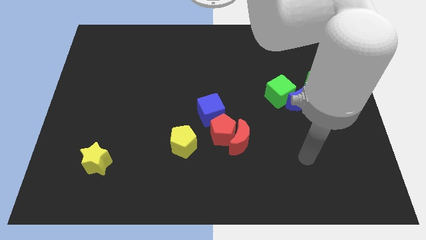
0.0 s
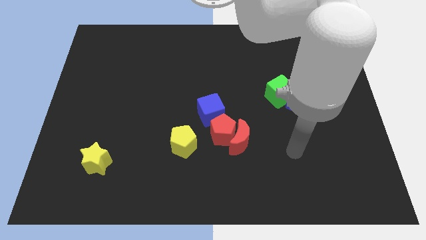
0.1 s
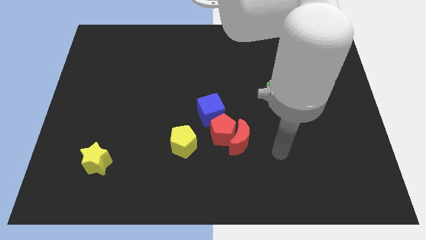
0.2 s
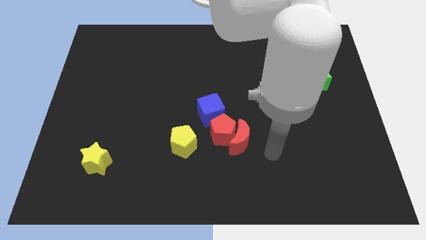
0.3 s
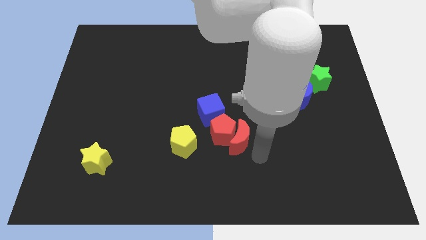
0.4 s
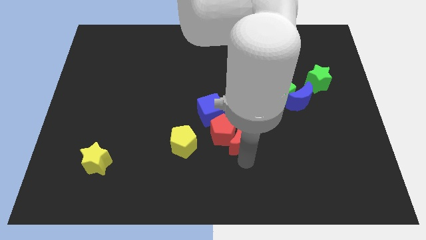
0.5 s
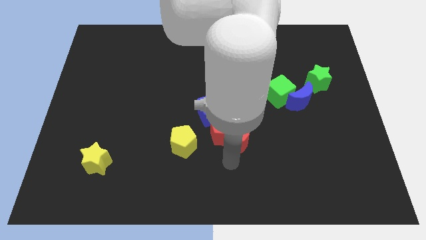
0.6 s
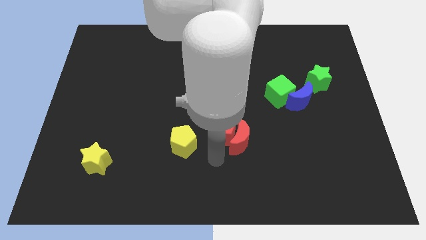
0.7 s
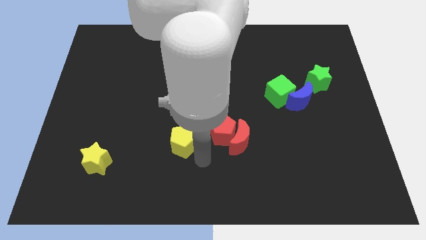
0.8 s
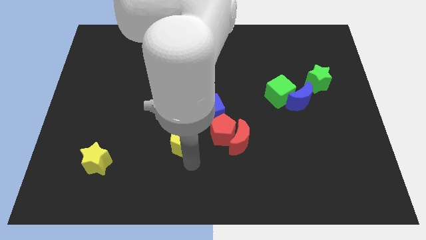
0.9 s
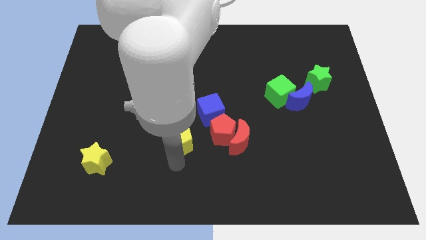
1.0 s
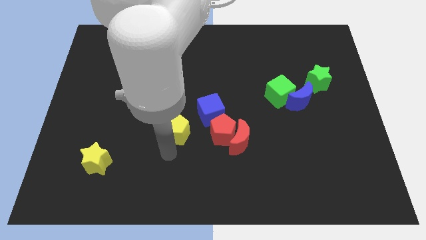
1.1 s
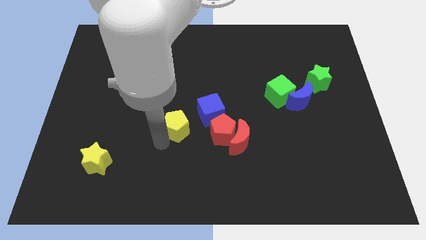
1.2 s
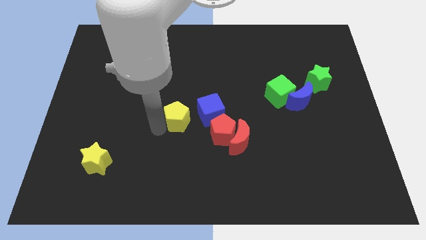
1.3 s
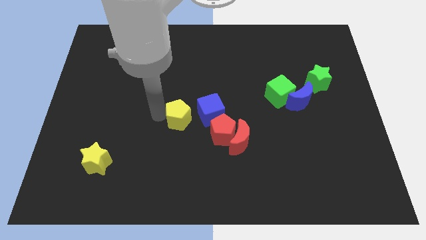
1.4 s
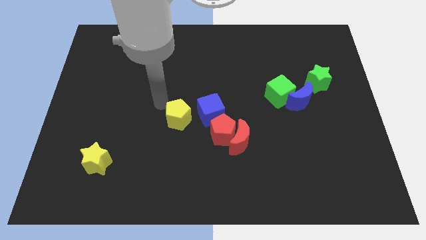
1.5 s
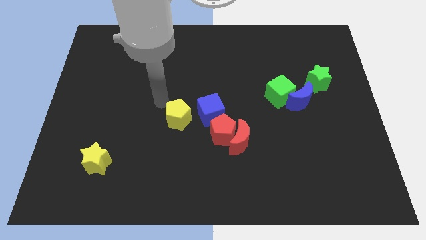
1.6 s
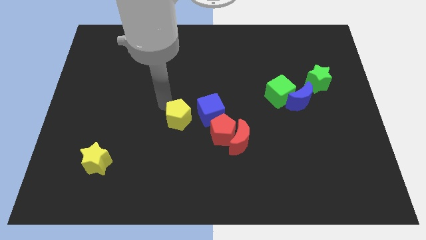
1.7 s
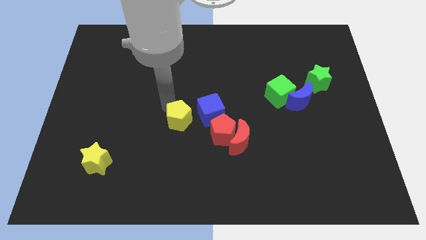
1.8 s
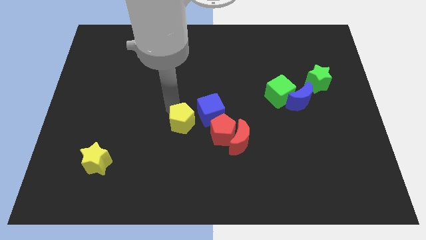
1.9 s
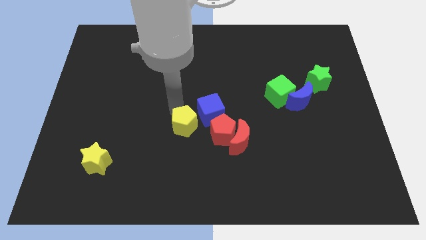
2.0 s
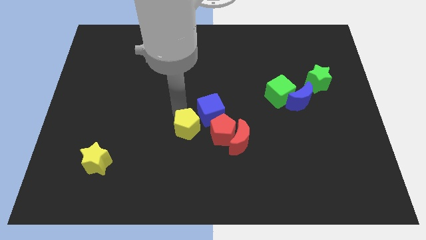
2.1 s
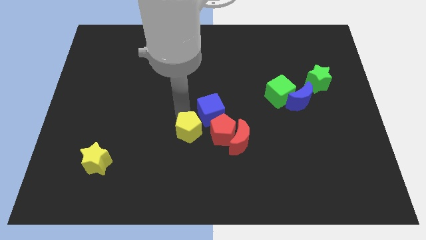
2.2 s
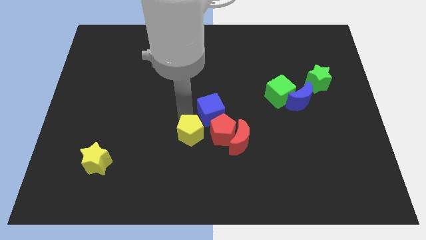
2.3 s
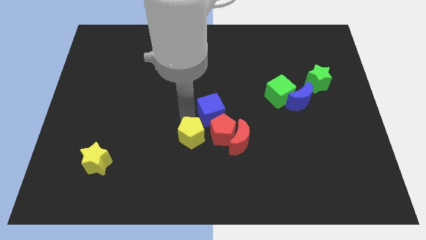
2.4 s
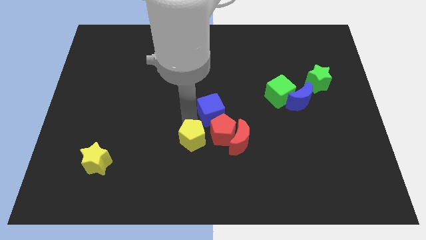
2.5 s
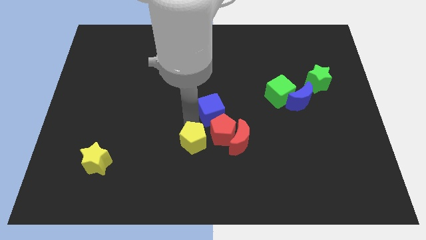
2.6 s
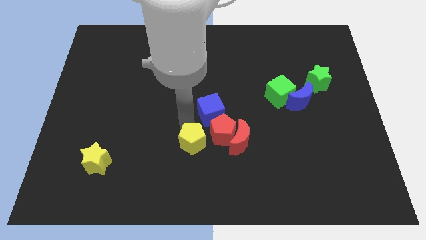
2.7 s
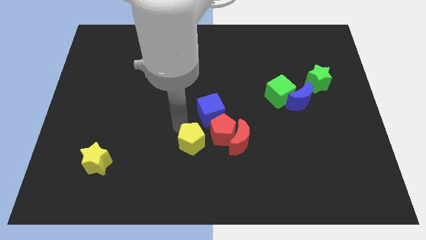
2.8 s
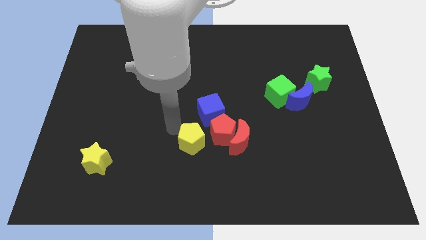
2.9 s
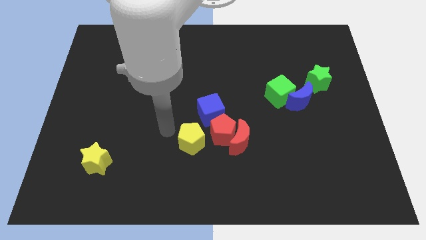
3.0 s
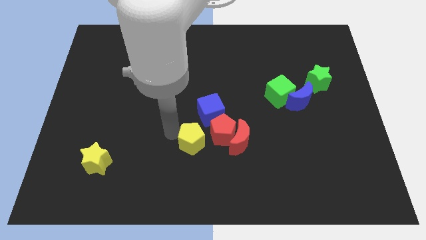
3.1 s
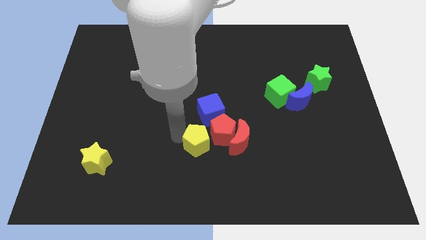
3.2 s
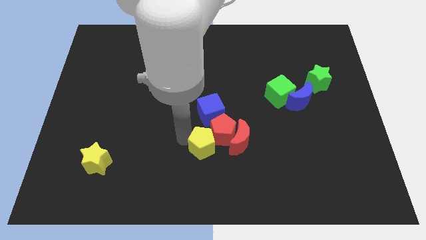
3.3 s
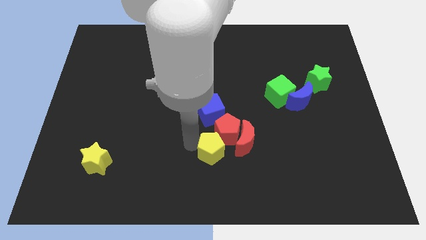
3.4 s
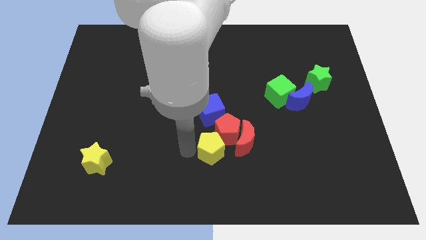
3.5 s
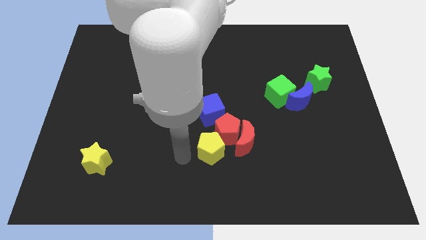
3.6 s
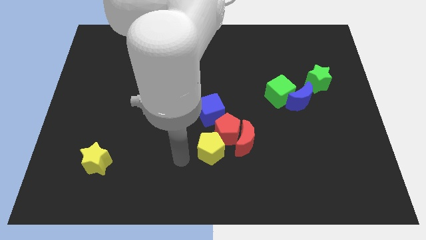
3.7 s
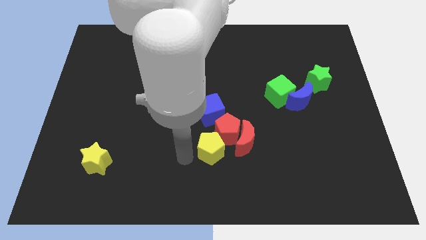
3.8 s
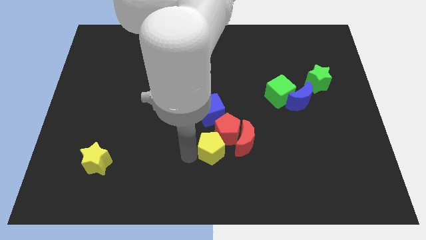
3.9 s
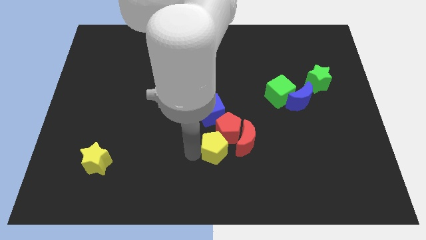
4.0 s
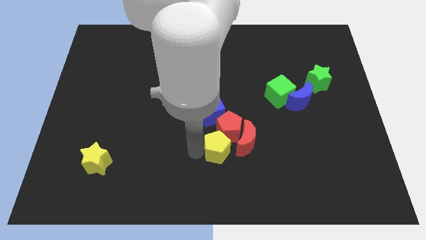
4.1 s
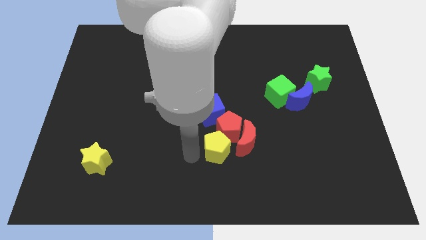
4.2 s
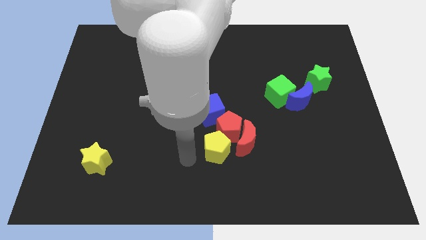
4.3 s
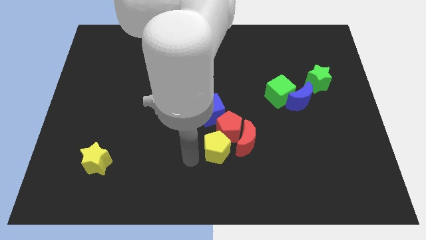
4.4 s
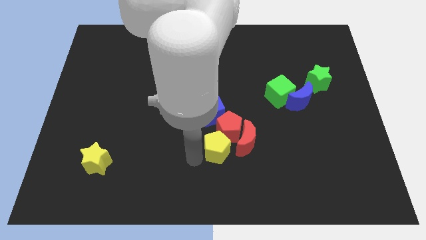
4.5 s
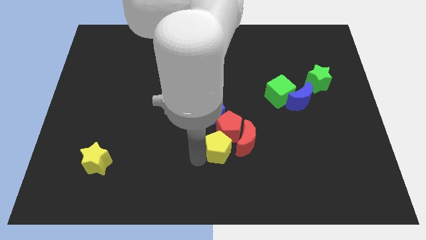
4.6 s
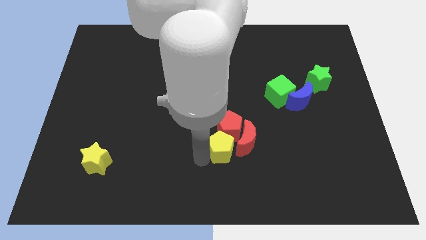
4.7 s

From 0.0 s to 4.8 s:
push the yellow pentagon towards the red moon

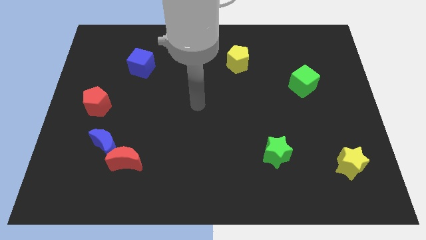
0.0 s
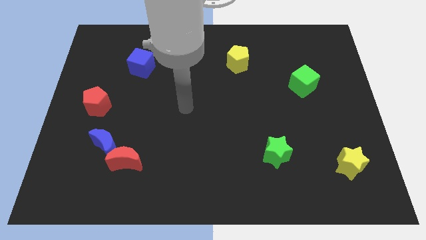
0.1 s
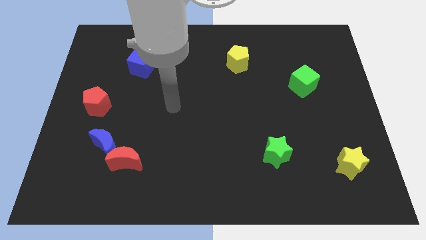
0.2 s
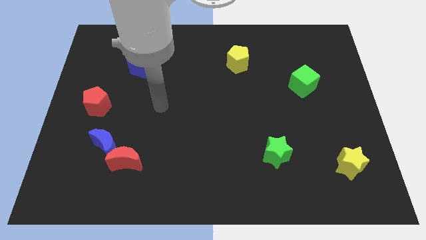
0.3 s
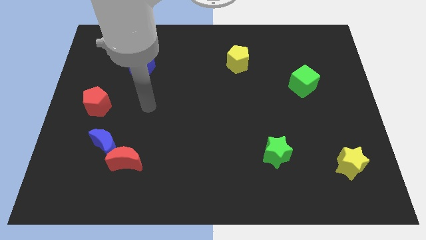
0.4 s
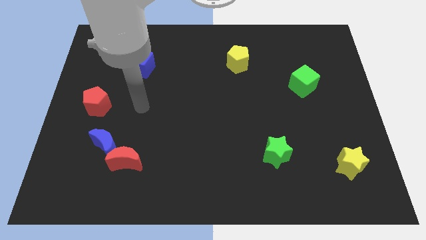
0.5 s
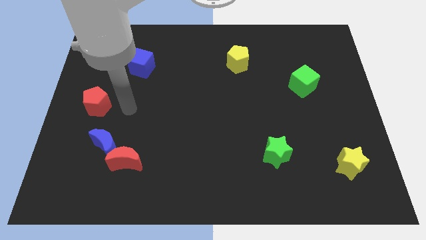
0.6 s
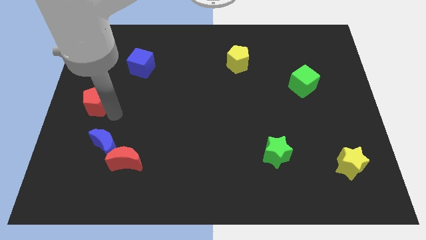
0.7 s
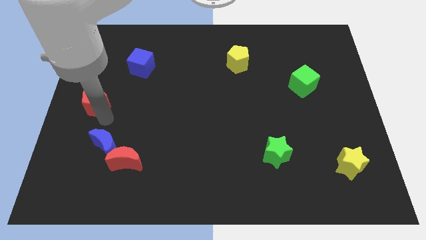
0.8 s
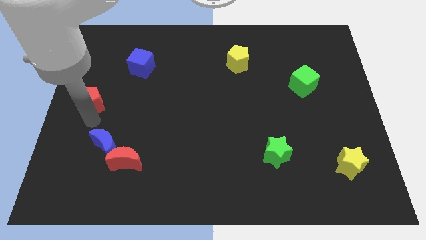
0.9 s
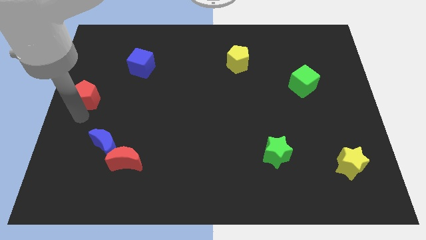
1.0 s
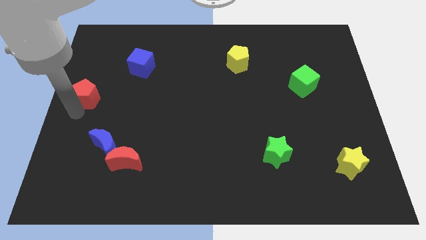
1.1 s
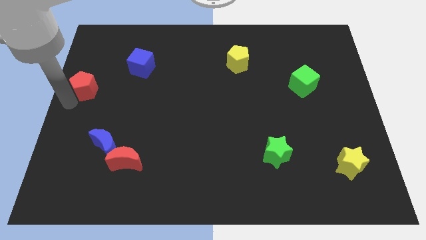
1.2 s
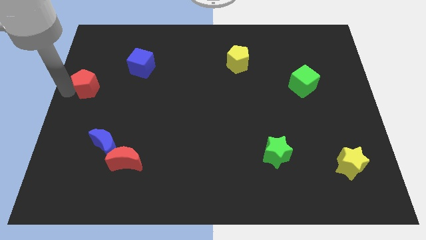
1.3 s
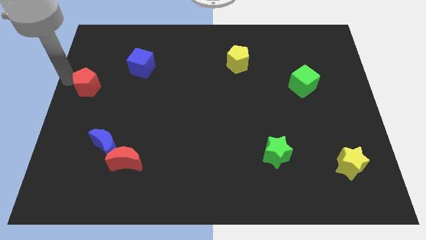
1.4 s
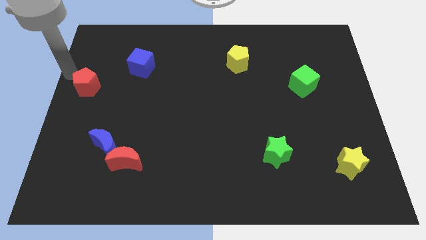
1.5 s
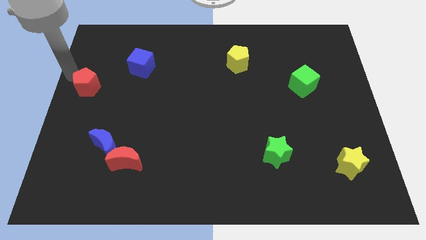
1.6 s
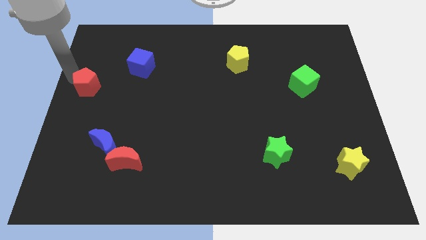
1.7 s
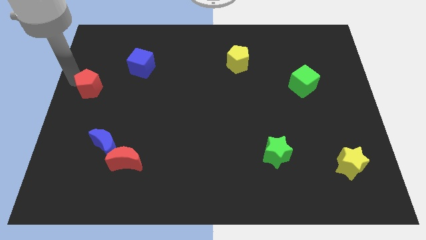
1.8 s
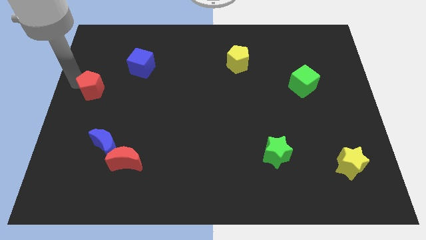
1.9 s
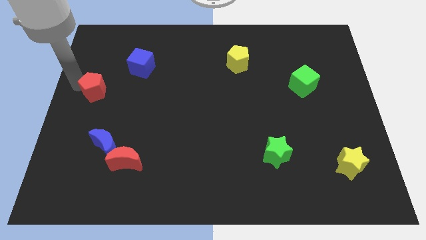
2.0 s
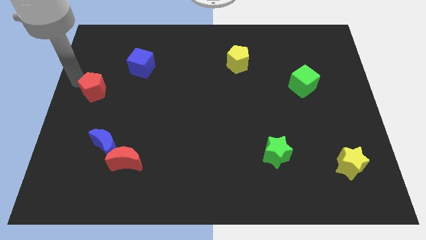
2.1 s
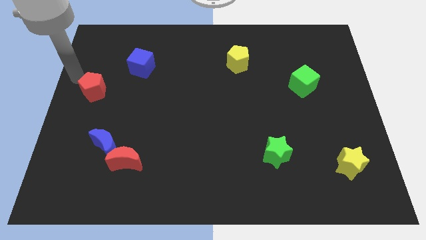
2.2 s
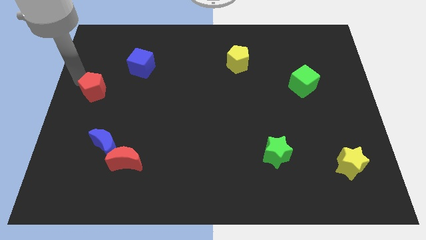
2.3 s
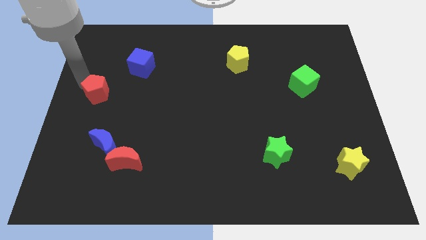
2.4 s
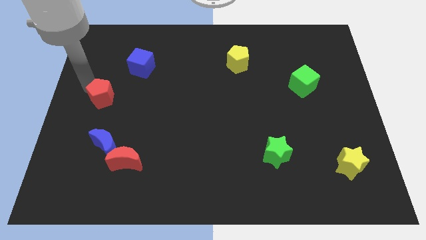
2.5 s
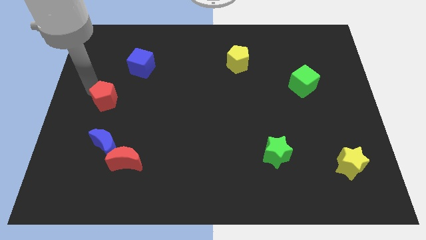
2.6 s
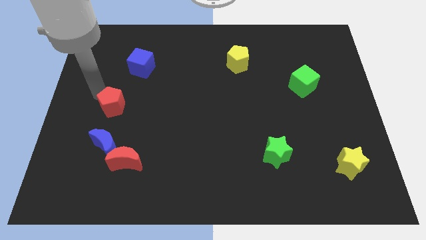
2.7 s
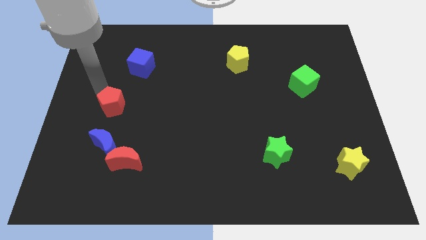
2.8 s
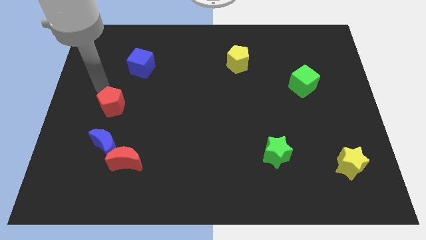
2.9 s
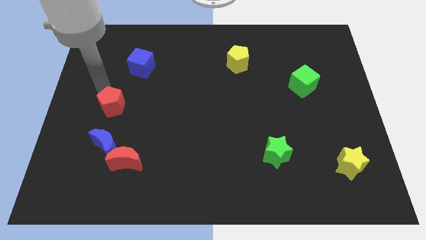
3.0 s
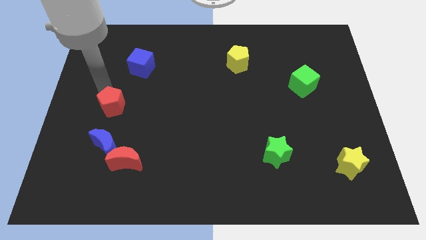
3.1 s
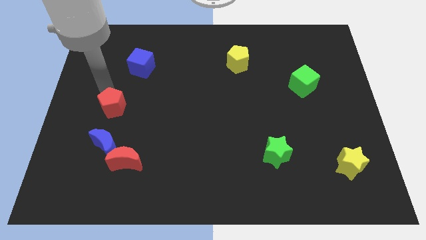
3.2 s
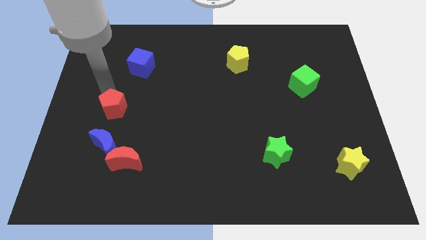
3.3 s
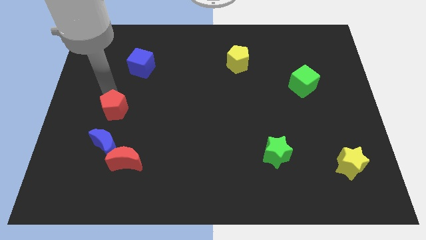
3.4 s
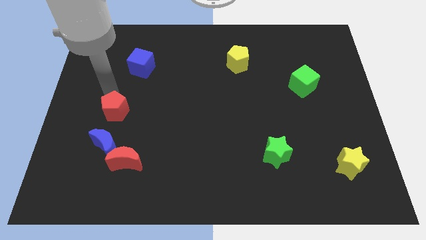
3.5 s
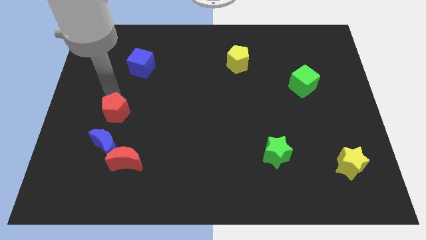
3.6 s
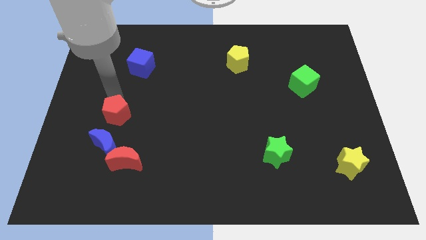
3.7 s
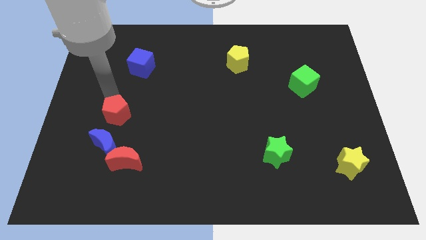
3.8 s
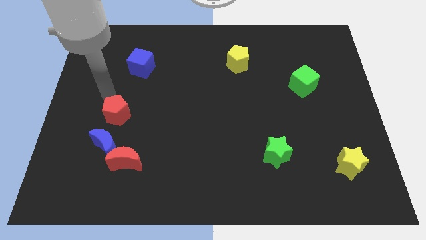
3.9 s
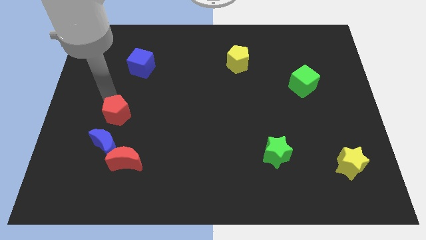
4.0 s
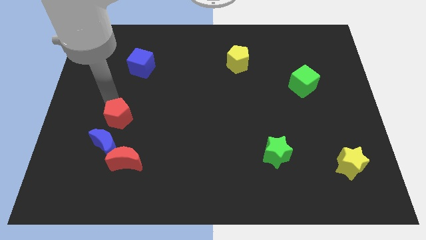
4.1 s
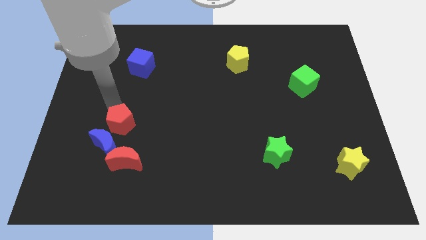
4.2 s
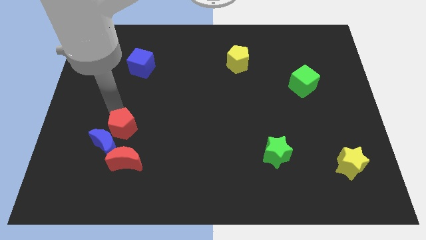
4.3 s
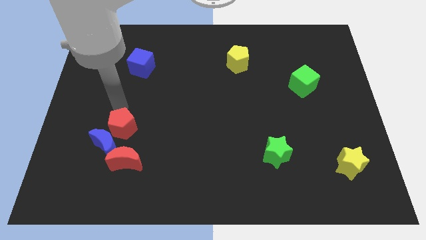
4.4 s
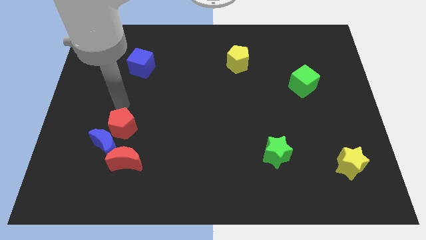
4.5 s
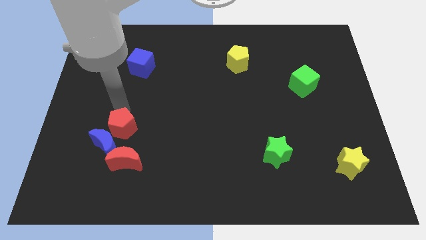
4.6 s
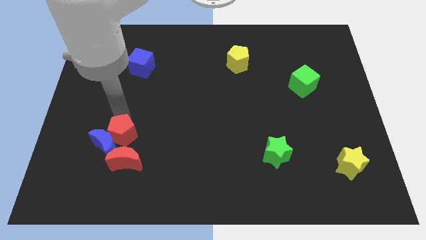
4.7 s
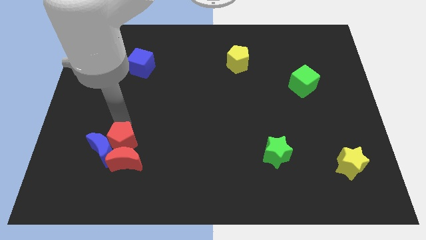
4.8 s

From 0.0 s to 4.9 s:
put the red pentagon next to the red moon
